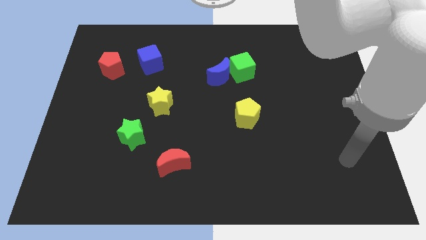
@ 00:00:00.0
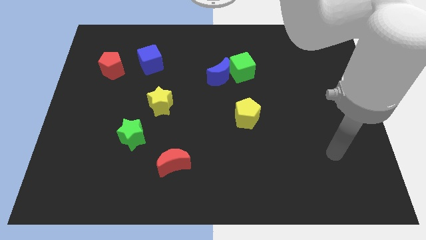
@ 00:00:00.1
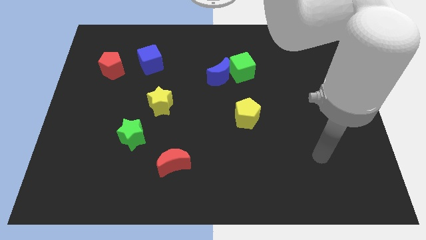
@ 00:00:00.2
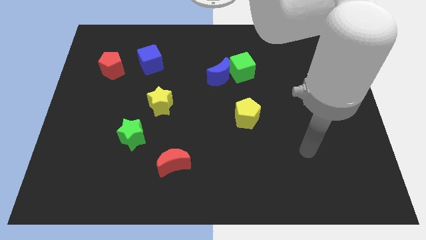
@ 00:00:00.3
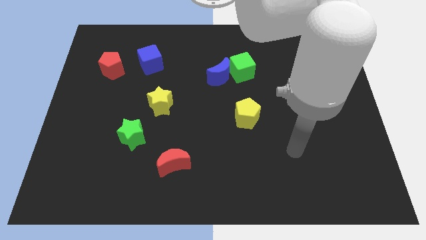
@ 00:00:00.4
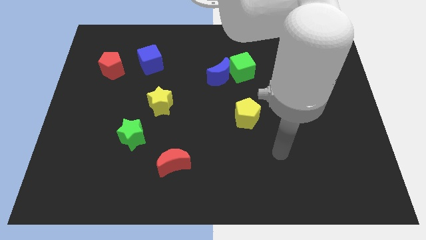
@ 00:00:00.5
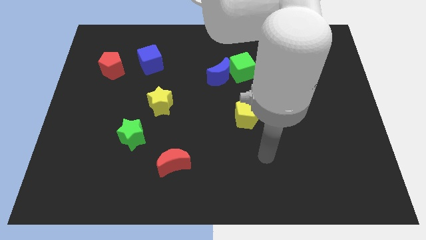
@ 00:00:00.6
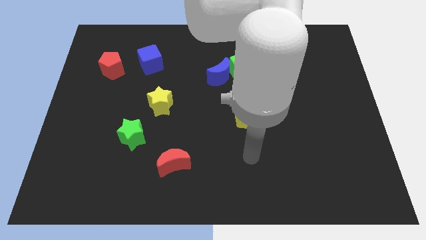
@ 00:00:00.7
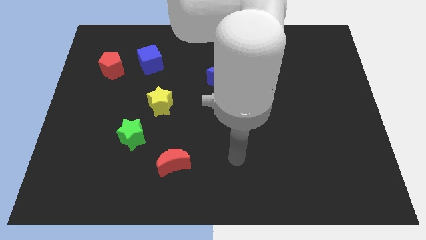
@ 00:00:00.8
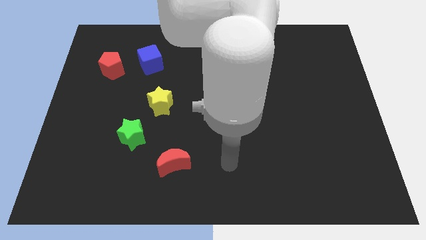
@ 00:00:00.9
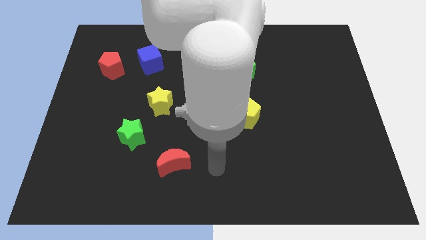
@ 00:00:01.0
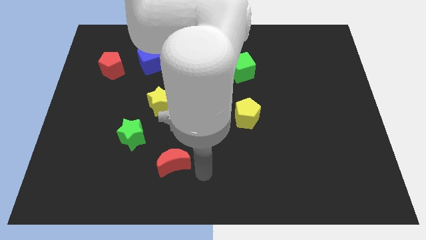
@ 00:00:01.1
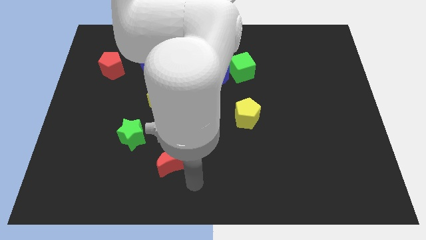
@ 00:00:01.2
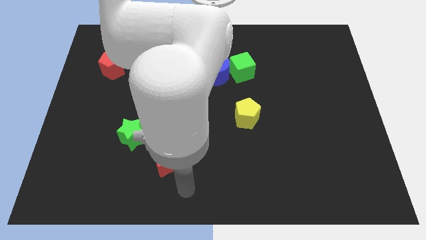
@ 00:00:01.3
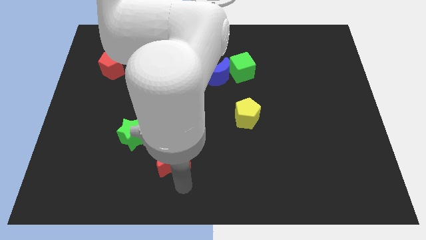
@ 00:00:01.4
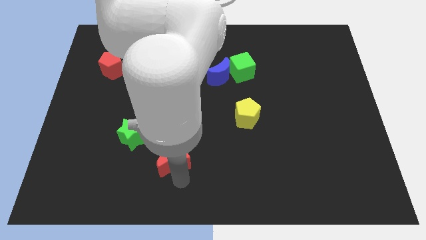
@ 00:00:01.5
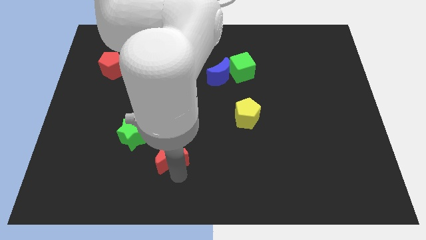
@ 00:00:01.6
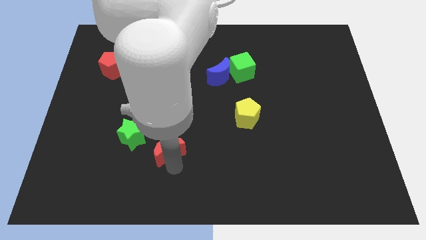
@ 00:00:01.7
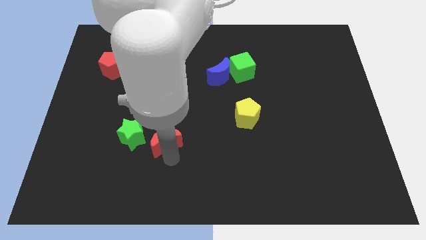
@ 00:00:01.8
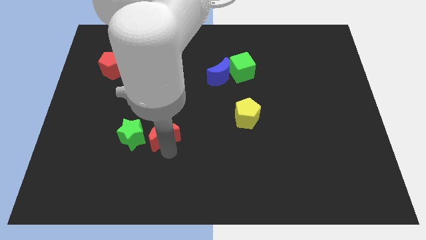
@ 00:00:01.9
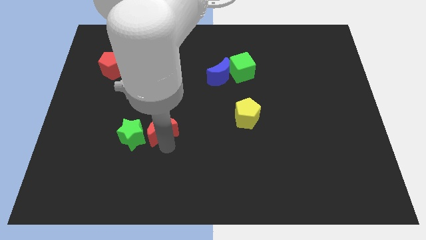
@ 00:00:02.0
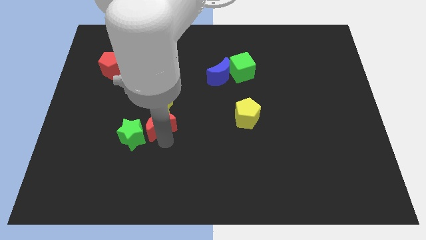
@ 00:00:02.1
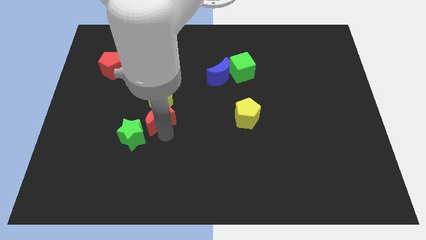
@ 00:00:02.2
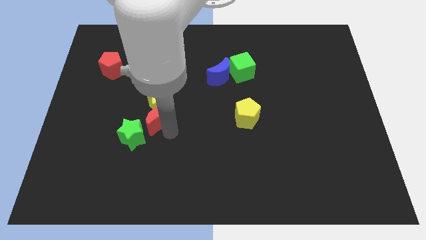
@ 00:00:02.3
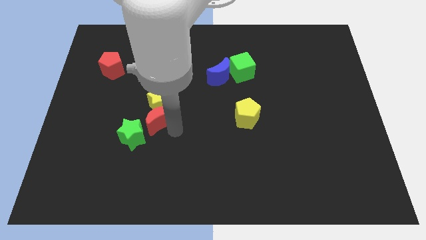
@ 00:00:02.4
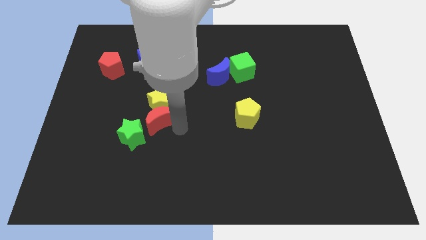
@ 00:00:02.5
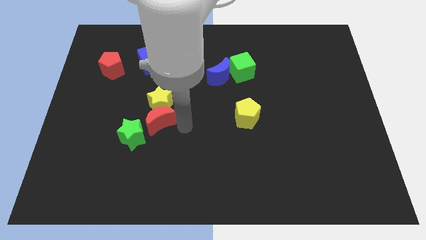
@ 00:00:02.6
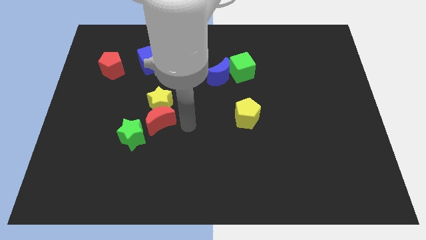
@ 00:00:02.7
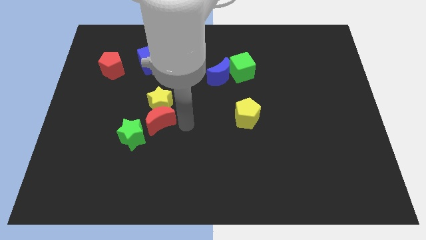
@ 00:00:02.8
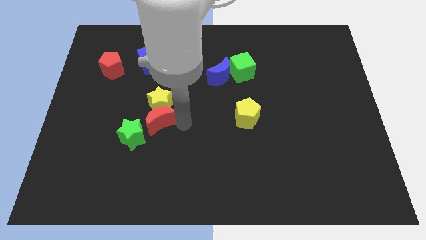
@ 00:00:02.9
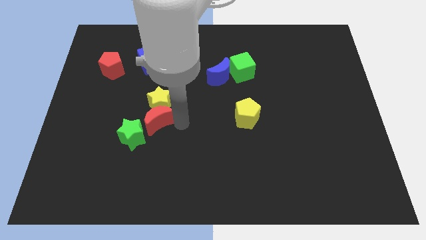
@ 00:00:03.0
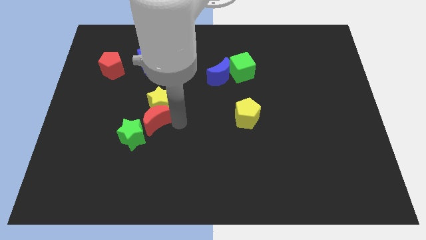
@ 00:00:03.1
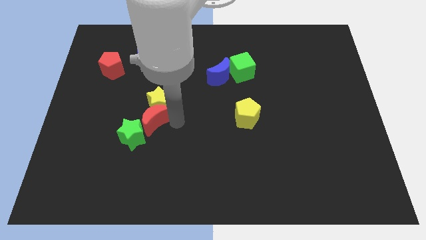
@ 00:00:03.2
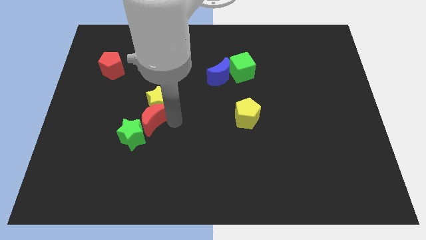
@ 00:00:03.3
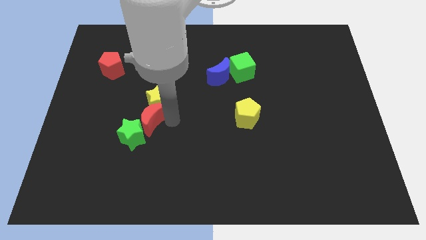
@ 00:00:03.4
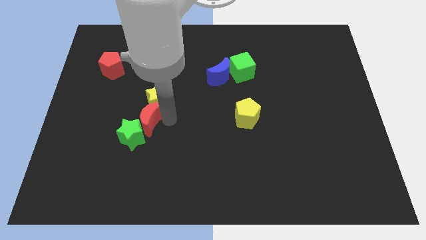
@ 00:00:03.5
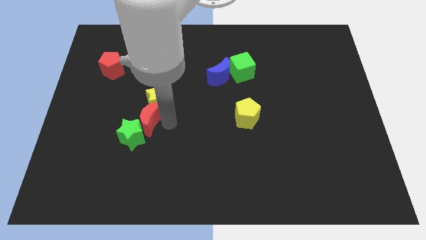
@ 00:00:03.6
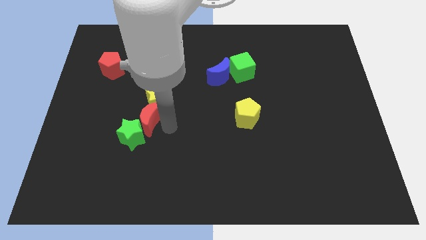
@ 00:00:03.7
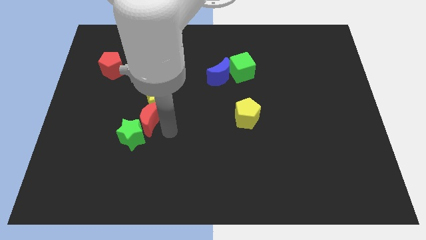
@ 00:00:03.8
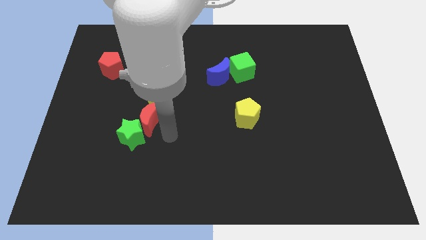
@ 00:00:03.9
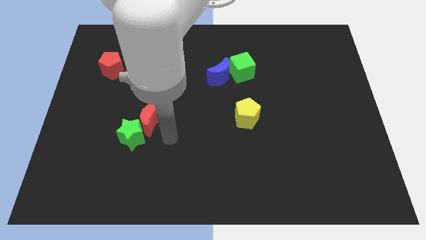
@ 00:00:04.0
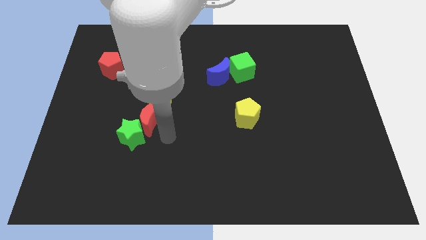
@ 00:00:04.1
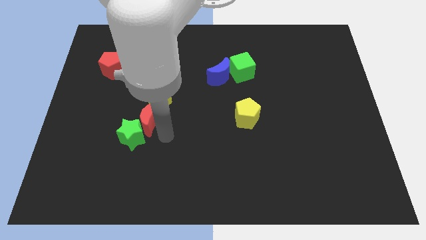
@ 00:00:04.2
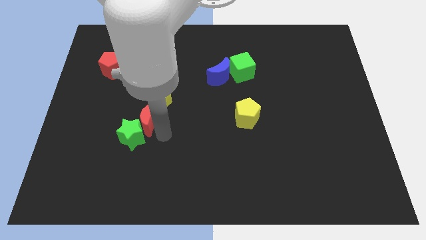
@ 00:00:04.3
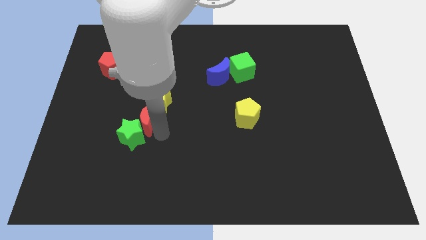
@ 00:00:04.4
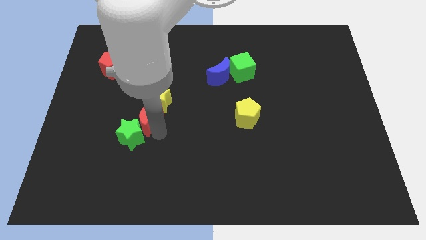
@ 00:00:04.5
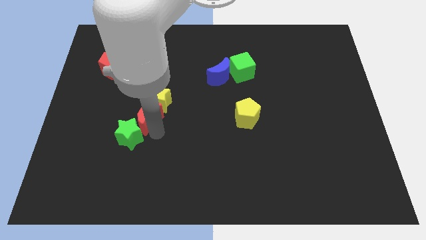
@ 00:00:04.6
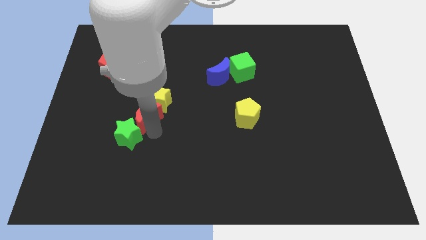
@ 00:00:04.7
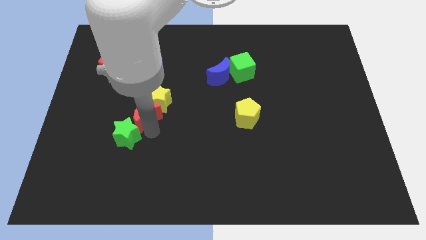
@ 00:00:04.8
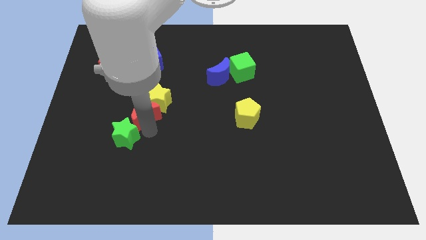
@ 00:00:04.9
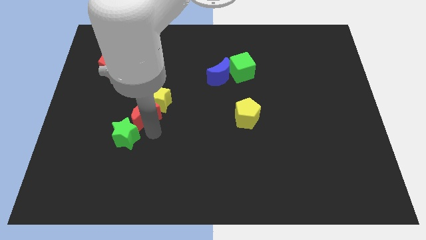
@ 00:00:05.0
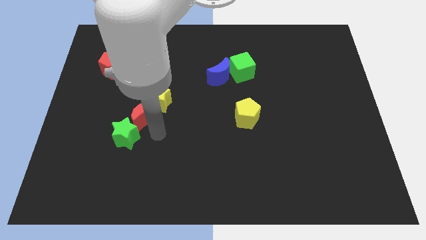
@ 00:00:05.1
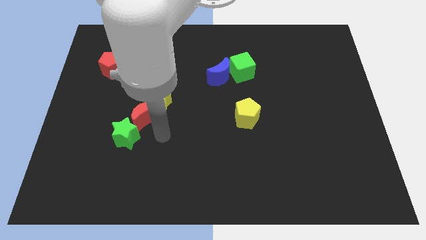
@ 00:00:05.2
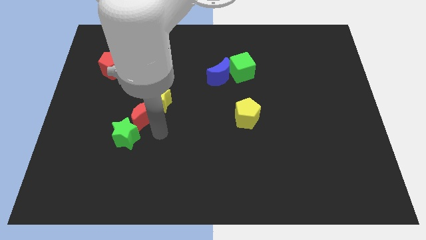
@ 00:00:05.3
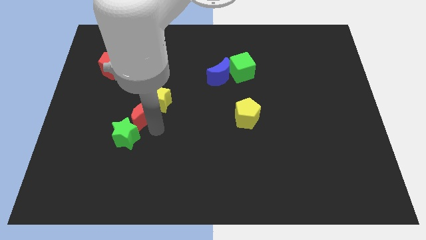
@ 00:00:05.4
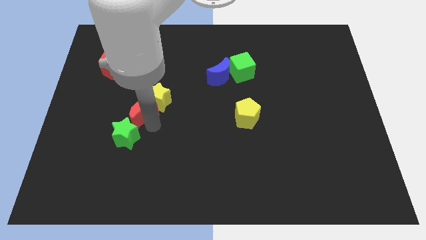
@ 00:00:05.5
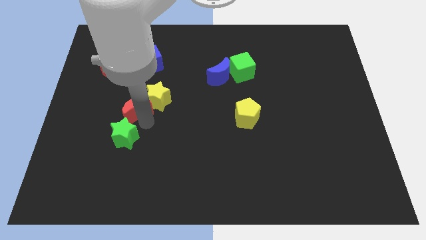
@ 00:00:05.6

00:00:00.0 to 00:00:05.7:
push the red moon to the bottom of the blue cube

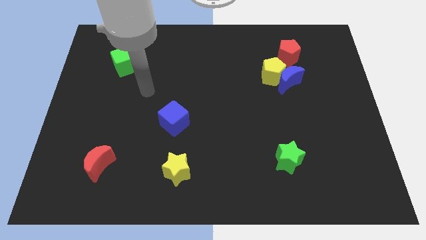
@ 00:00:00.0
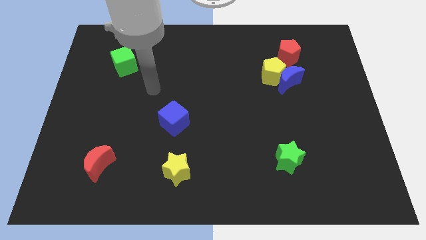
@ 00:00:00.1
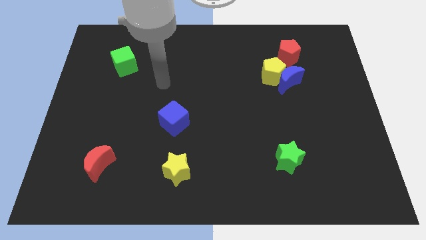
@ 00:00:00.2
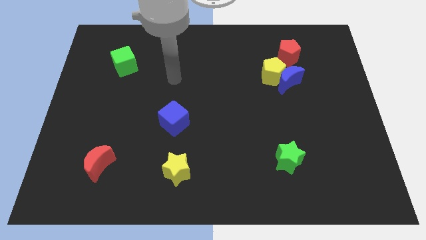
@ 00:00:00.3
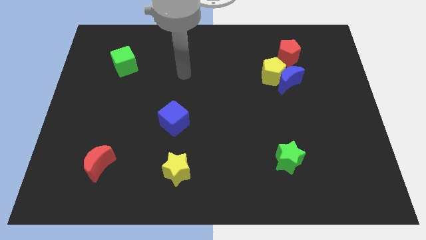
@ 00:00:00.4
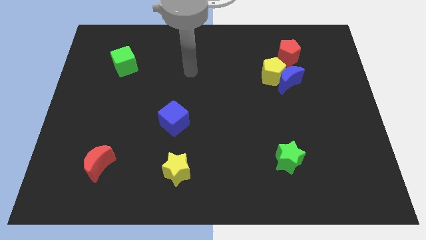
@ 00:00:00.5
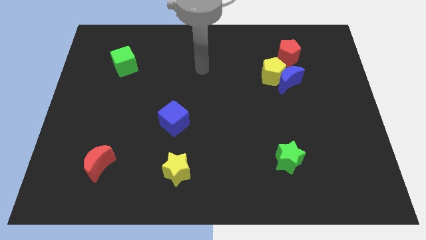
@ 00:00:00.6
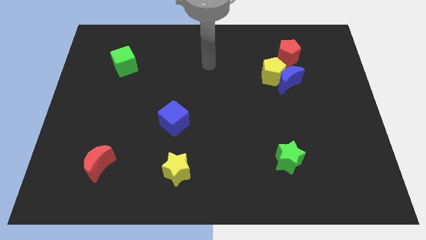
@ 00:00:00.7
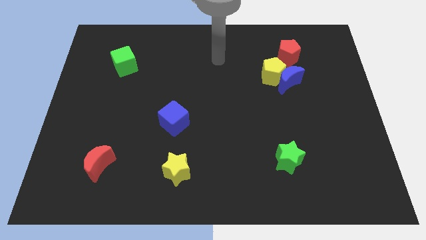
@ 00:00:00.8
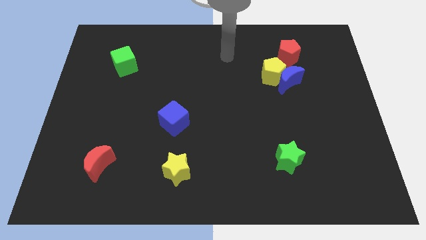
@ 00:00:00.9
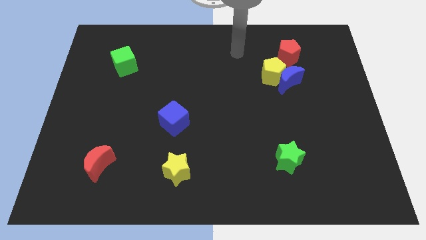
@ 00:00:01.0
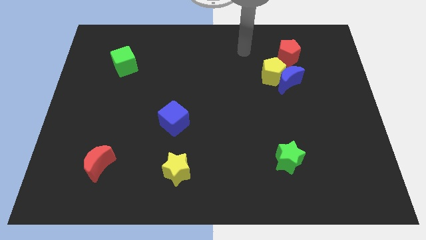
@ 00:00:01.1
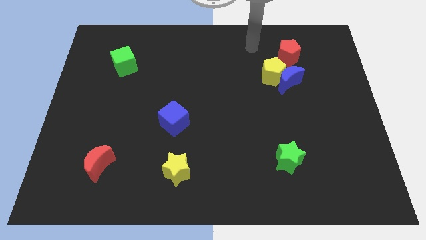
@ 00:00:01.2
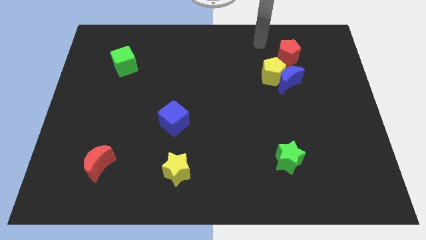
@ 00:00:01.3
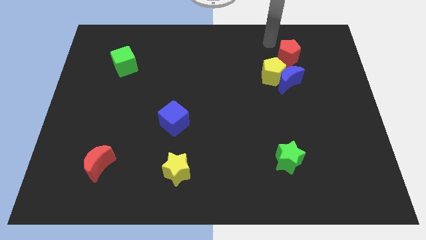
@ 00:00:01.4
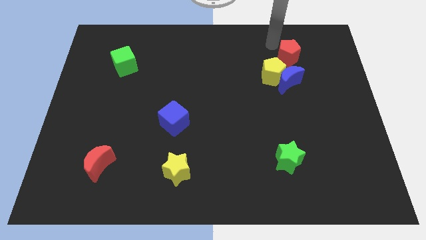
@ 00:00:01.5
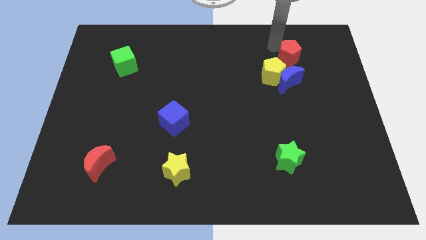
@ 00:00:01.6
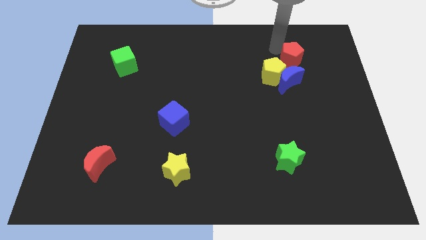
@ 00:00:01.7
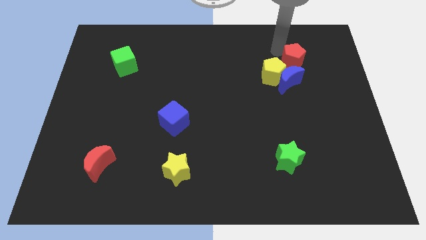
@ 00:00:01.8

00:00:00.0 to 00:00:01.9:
slide the red pentagon to the right side of the yellow pentagon
